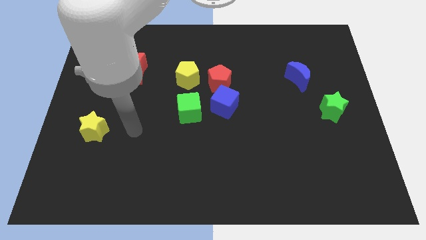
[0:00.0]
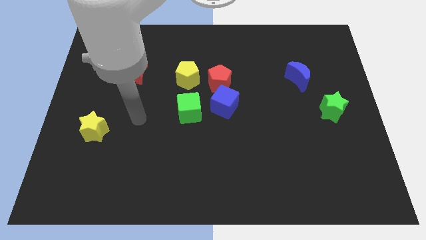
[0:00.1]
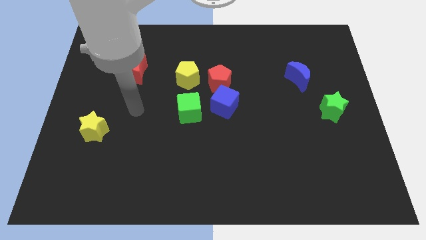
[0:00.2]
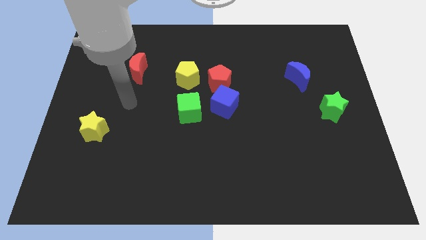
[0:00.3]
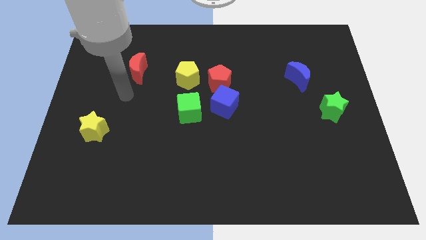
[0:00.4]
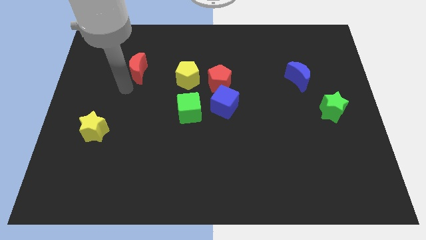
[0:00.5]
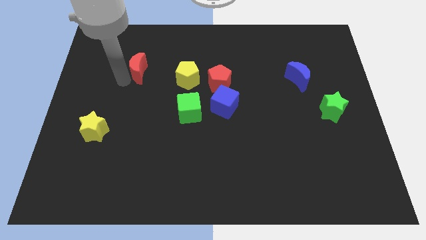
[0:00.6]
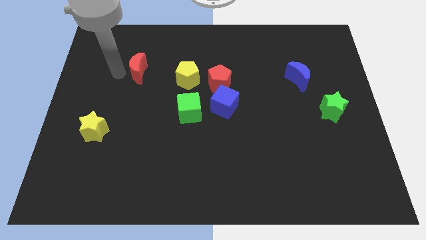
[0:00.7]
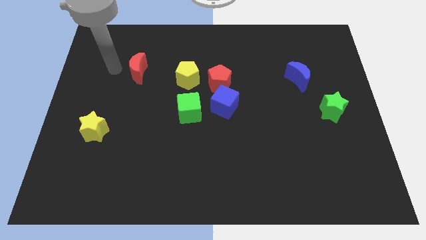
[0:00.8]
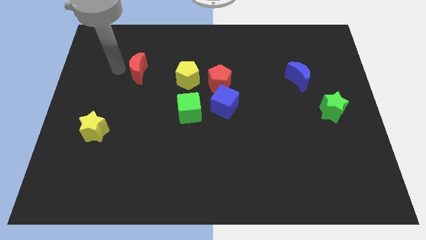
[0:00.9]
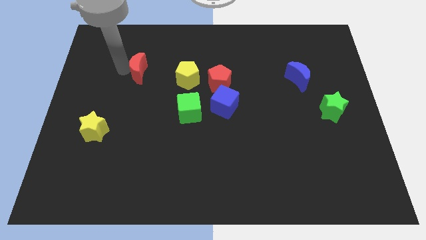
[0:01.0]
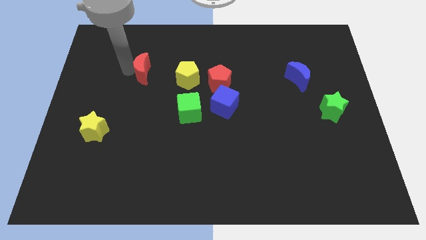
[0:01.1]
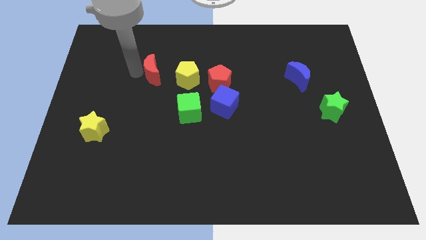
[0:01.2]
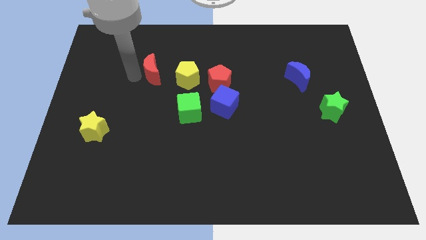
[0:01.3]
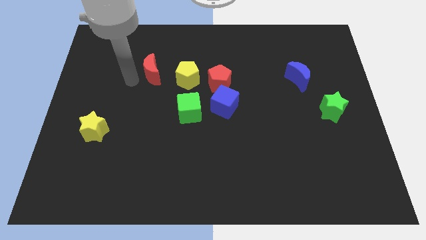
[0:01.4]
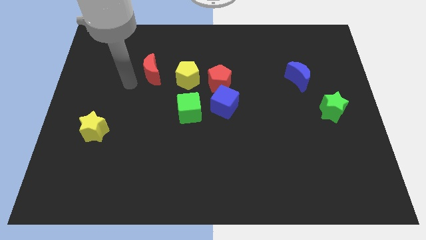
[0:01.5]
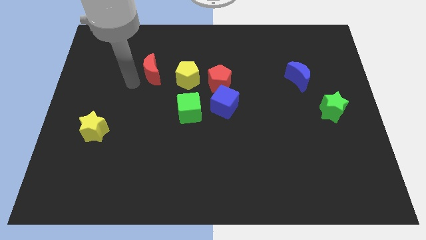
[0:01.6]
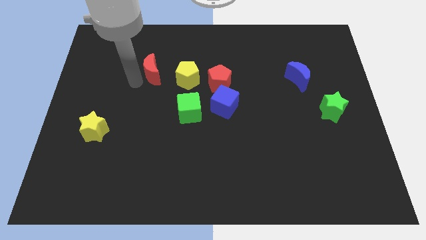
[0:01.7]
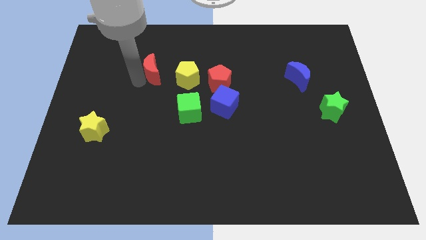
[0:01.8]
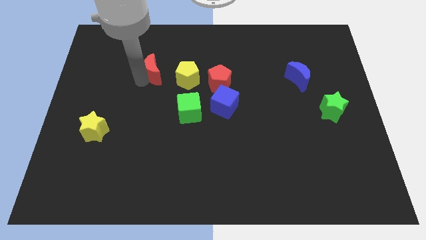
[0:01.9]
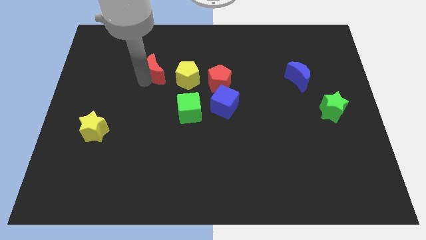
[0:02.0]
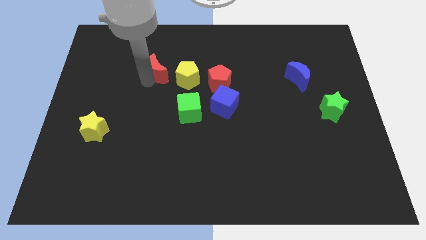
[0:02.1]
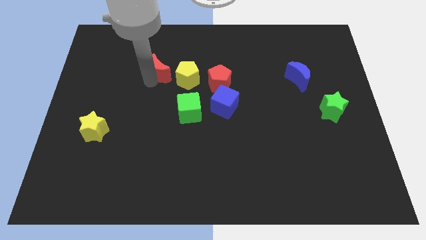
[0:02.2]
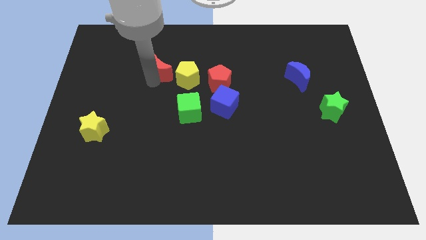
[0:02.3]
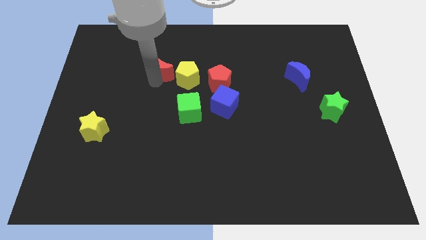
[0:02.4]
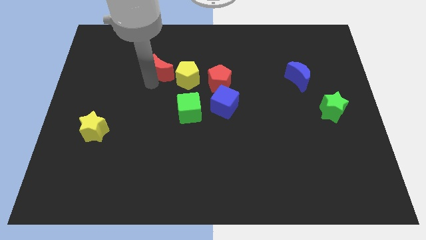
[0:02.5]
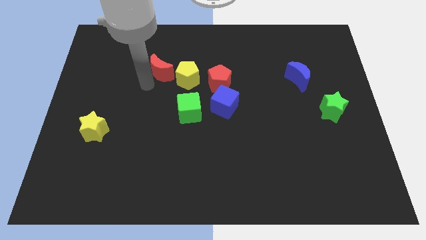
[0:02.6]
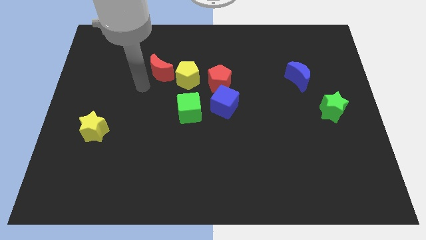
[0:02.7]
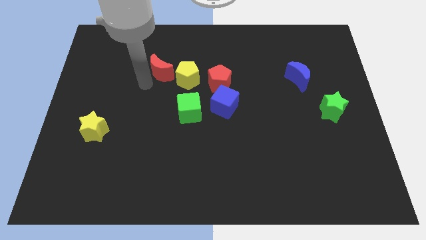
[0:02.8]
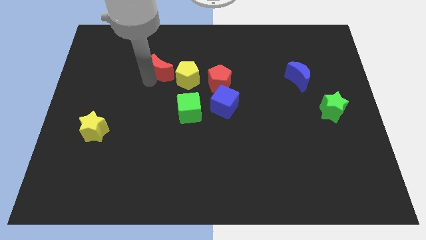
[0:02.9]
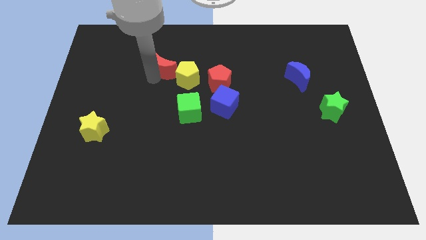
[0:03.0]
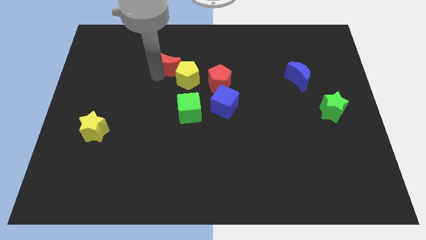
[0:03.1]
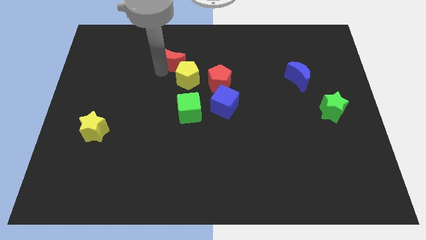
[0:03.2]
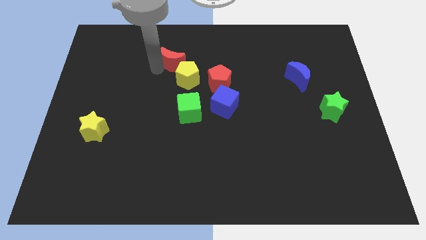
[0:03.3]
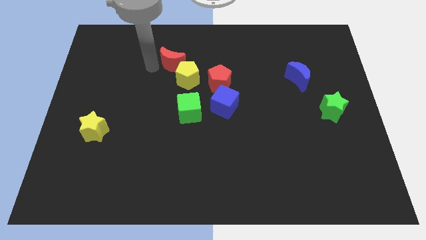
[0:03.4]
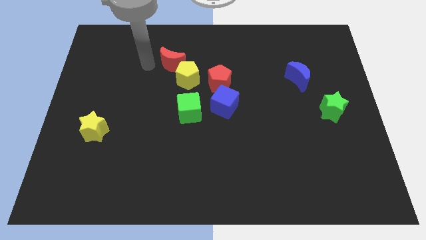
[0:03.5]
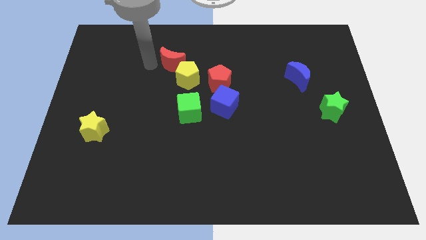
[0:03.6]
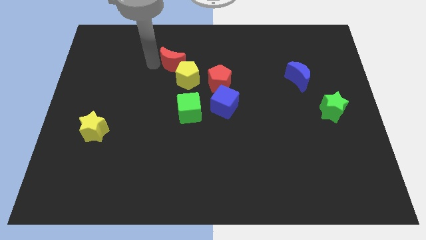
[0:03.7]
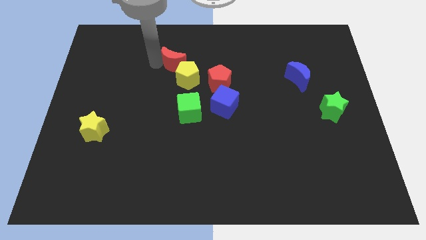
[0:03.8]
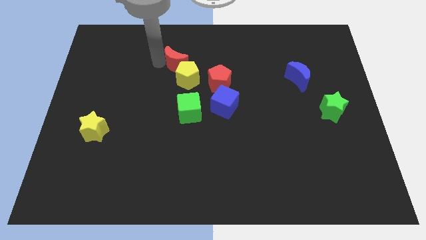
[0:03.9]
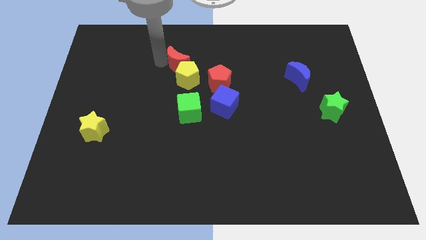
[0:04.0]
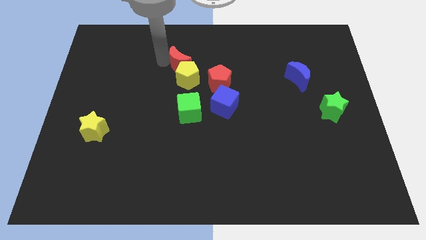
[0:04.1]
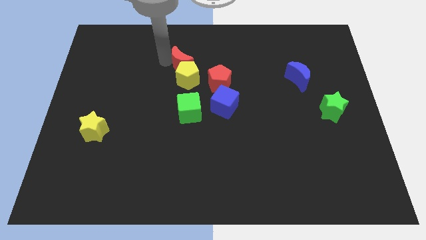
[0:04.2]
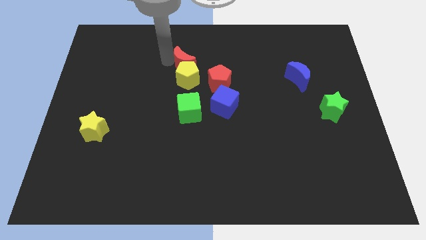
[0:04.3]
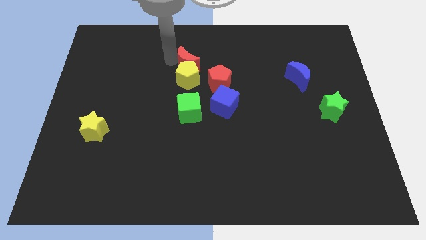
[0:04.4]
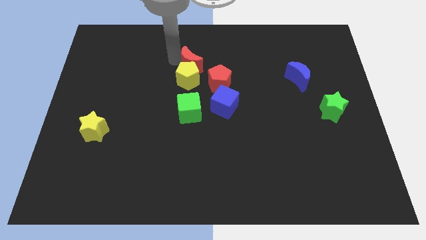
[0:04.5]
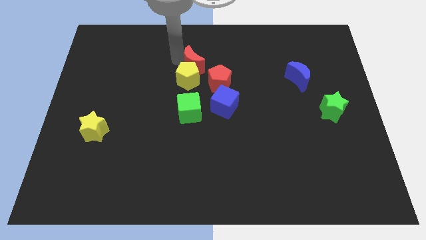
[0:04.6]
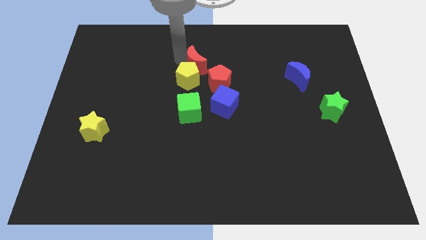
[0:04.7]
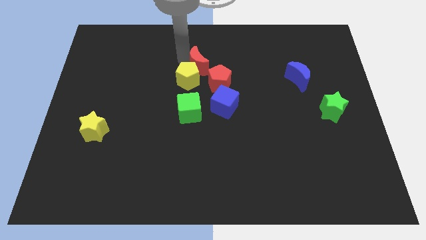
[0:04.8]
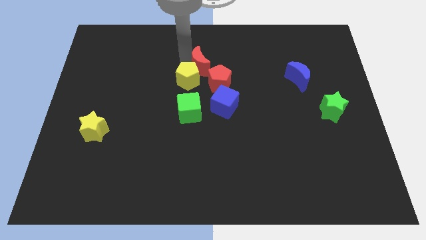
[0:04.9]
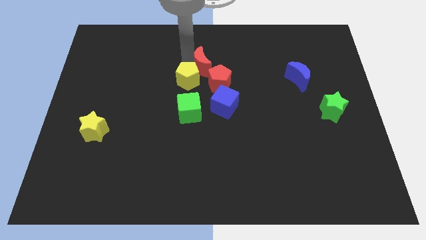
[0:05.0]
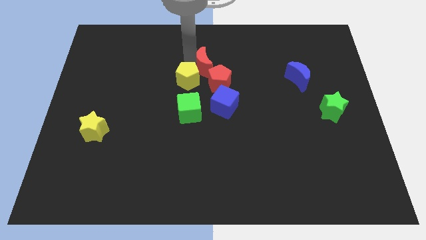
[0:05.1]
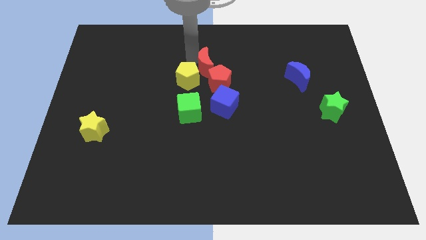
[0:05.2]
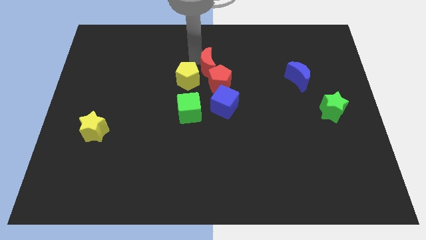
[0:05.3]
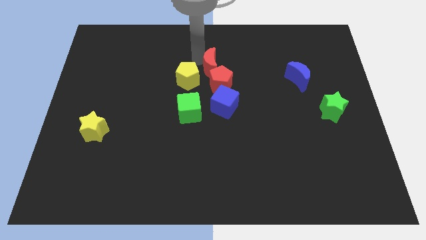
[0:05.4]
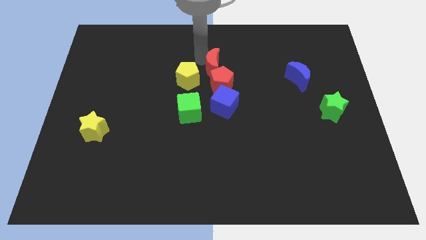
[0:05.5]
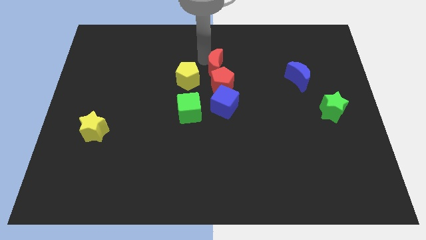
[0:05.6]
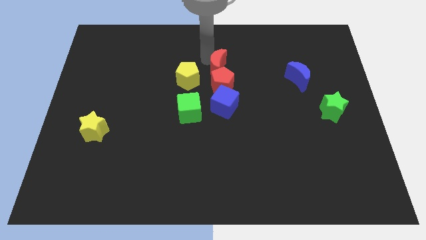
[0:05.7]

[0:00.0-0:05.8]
slide the red moon right

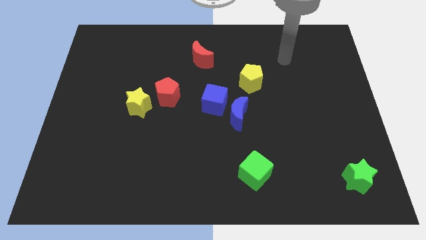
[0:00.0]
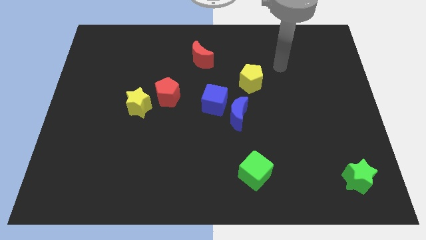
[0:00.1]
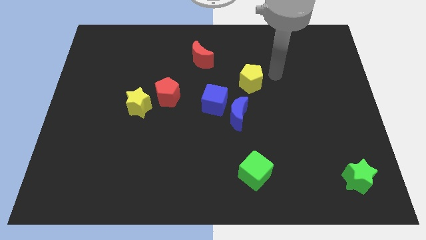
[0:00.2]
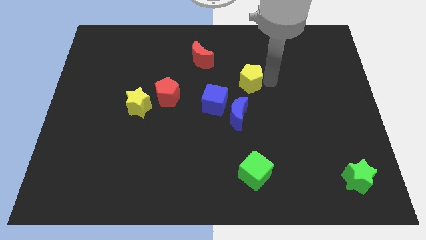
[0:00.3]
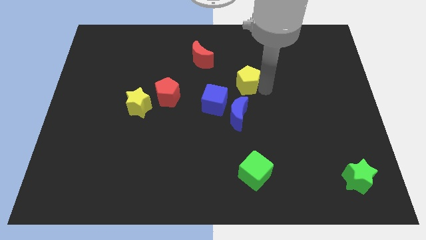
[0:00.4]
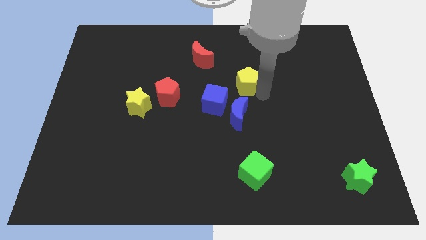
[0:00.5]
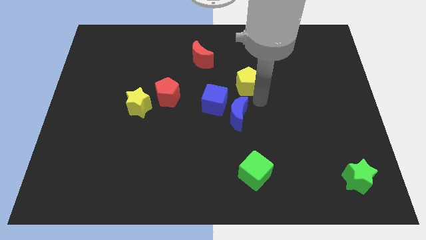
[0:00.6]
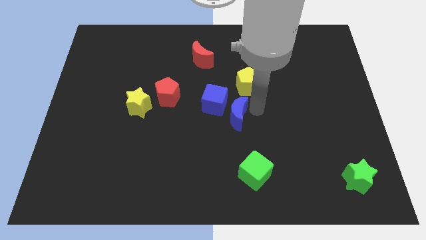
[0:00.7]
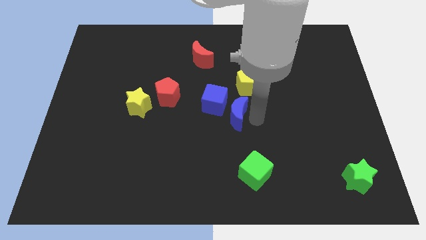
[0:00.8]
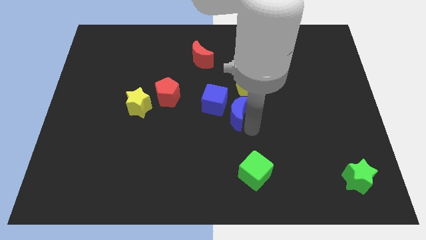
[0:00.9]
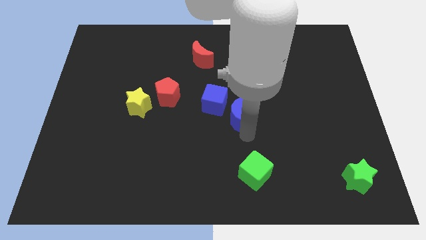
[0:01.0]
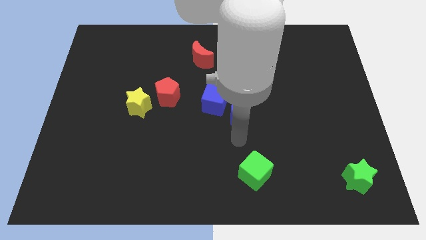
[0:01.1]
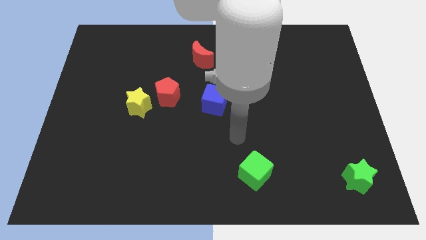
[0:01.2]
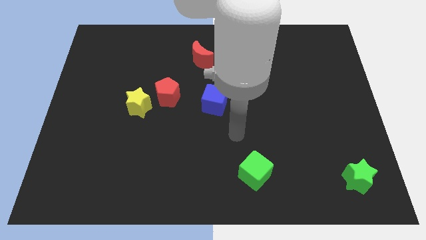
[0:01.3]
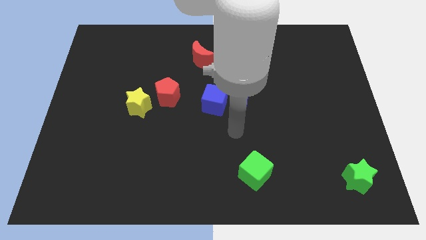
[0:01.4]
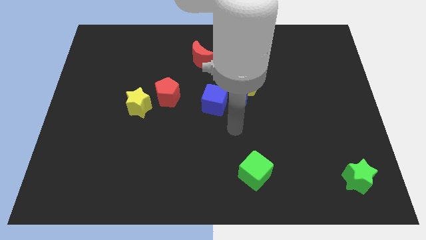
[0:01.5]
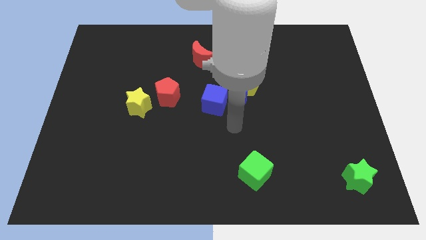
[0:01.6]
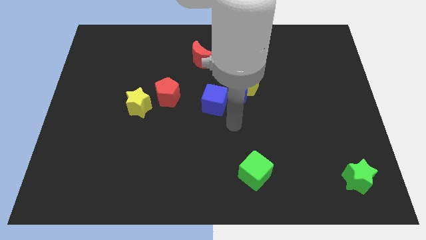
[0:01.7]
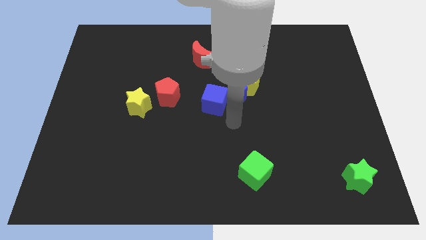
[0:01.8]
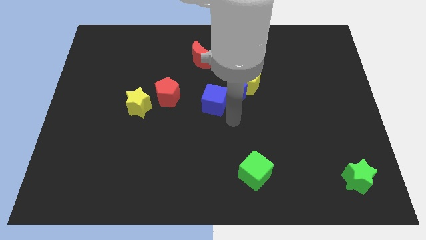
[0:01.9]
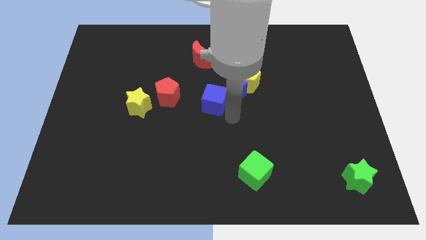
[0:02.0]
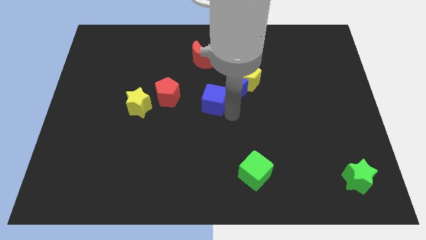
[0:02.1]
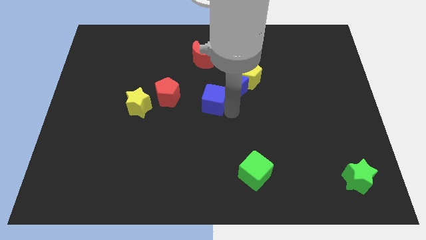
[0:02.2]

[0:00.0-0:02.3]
push the blue moon somewhat up
